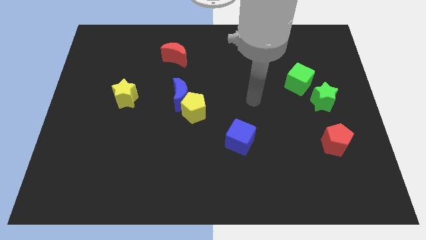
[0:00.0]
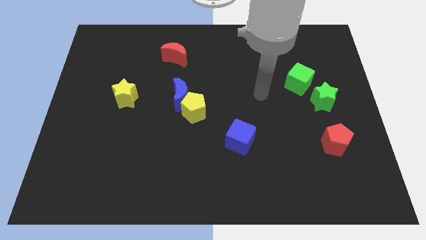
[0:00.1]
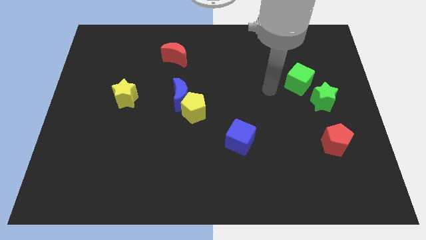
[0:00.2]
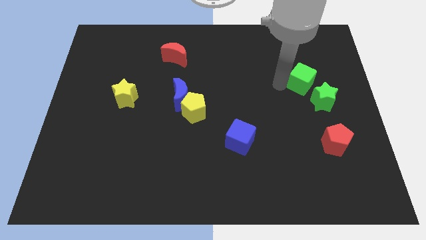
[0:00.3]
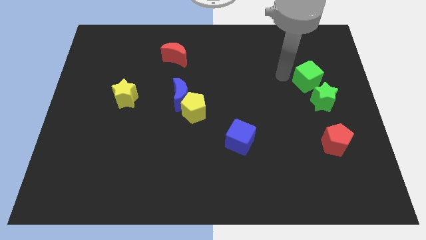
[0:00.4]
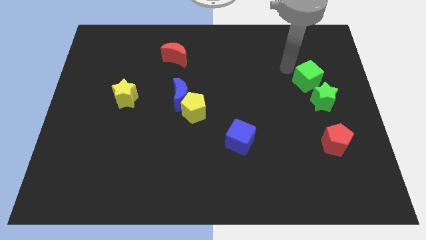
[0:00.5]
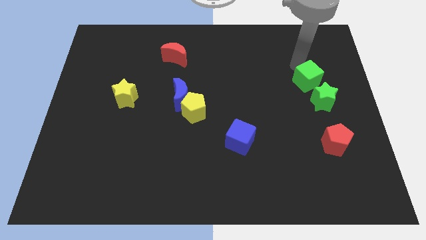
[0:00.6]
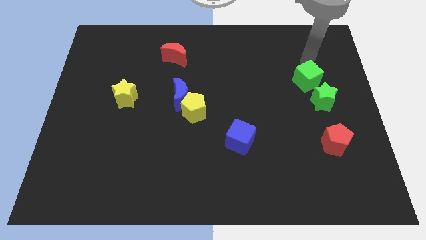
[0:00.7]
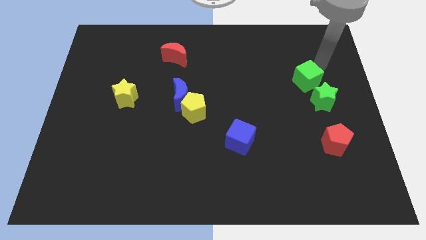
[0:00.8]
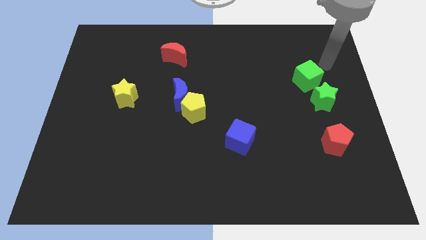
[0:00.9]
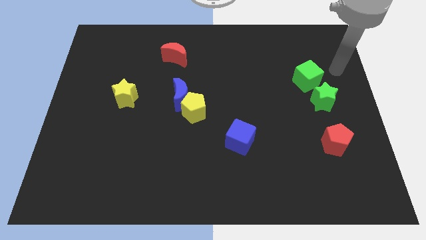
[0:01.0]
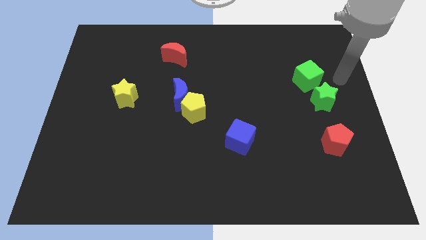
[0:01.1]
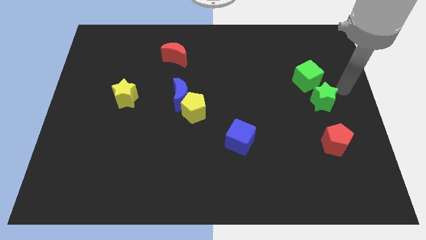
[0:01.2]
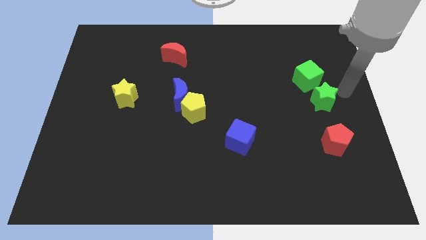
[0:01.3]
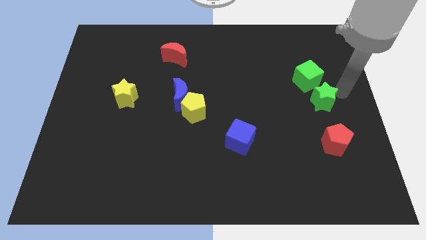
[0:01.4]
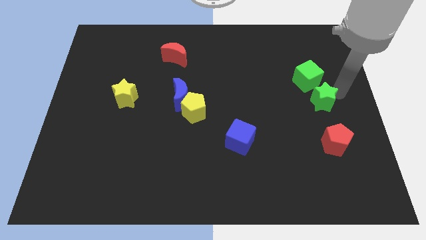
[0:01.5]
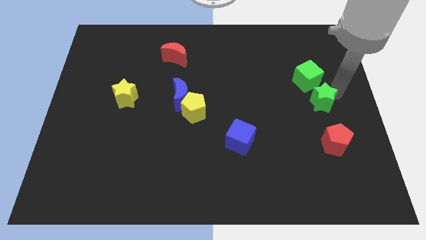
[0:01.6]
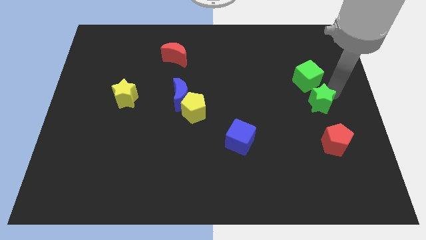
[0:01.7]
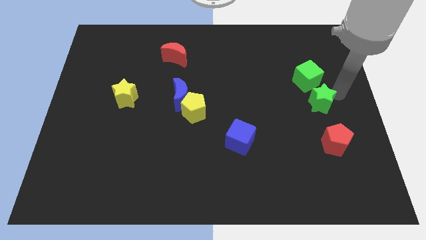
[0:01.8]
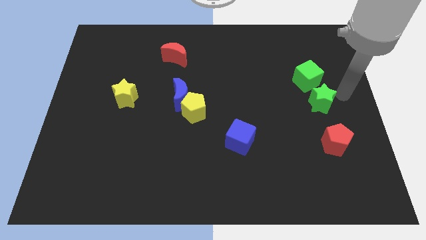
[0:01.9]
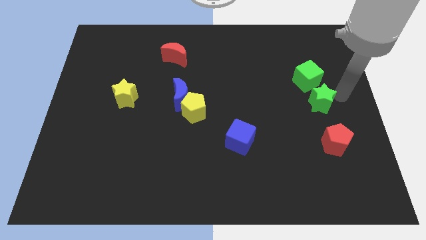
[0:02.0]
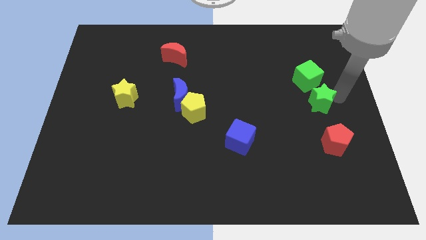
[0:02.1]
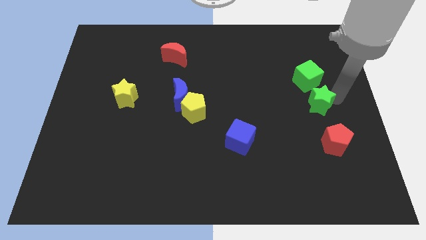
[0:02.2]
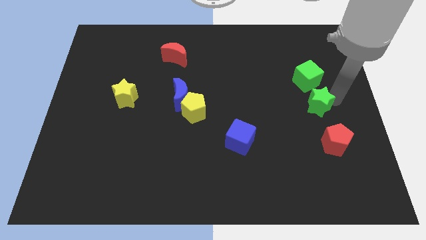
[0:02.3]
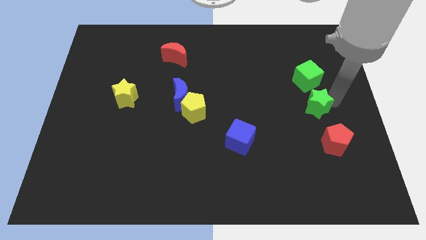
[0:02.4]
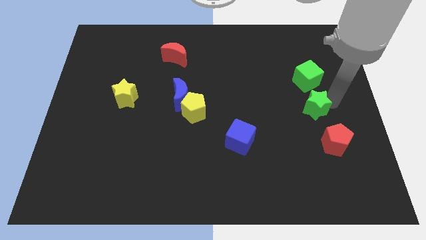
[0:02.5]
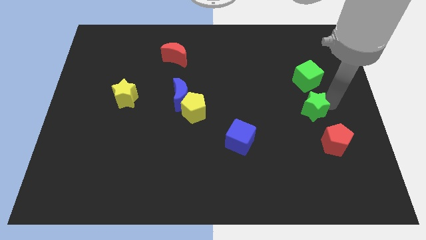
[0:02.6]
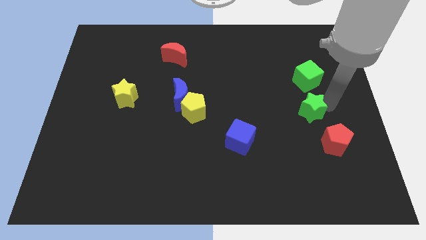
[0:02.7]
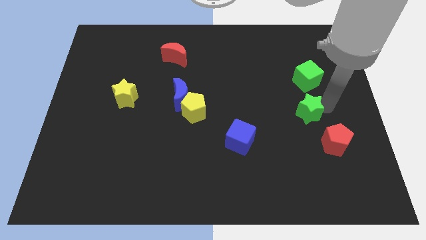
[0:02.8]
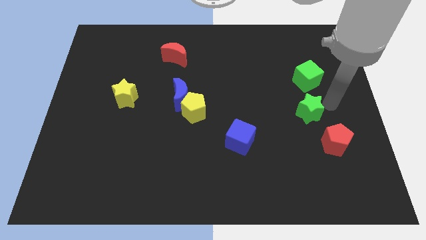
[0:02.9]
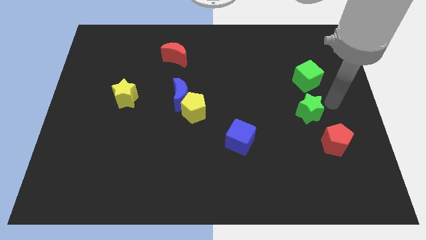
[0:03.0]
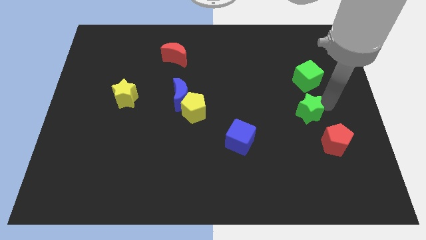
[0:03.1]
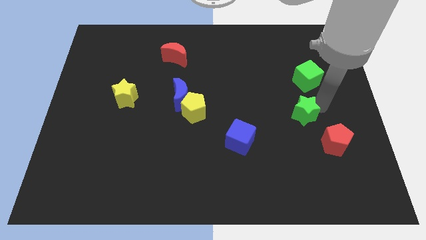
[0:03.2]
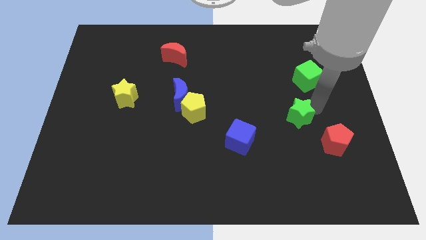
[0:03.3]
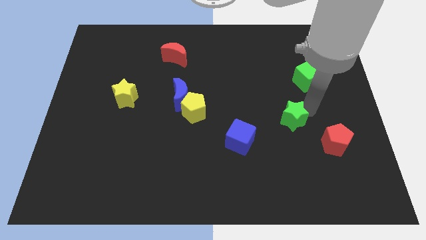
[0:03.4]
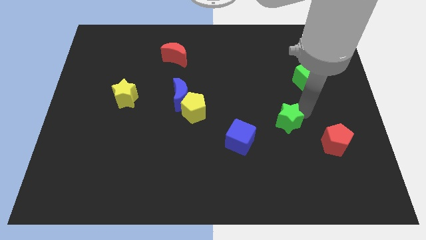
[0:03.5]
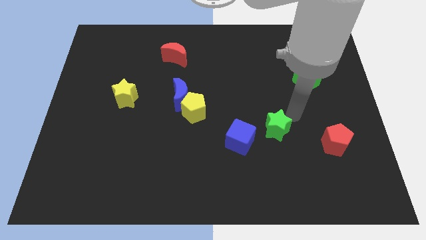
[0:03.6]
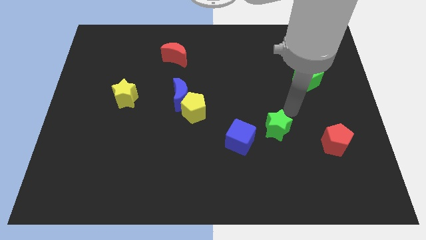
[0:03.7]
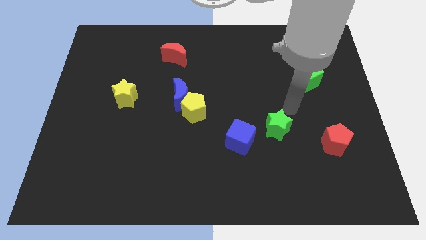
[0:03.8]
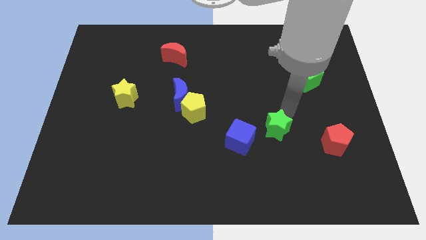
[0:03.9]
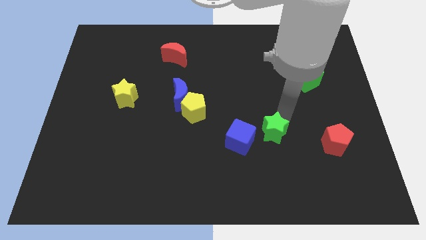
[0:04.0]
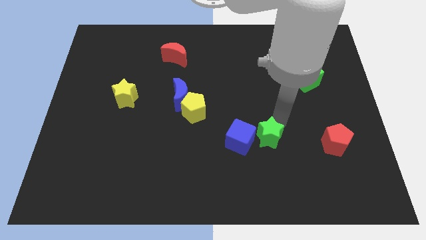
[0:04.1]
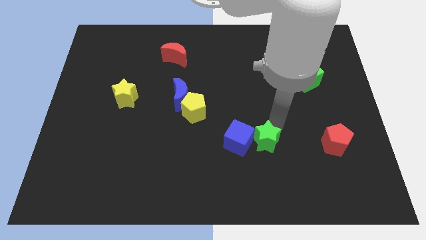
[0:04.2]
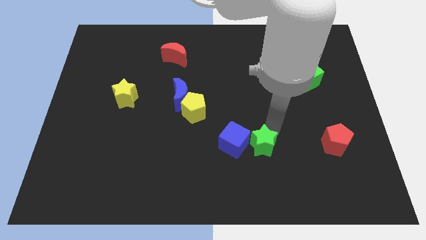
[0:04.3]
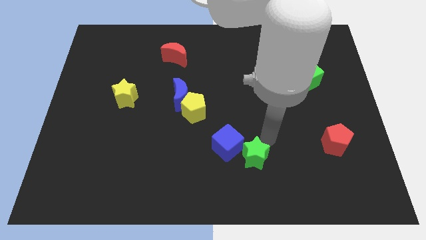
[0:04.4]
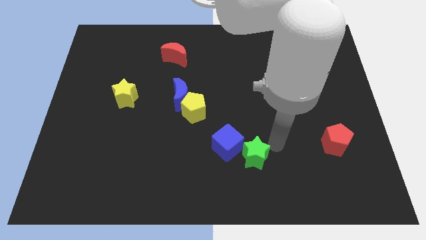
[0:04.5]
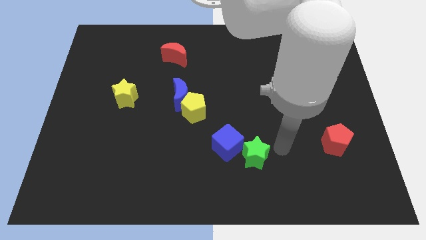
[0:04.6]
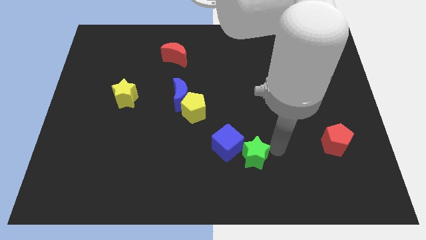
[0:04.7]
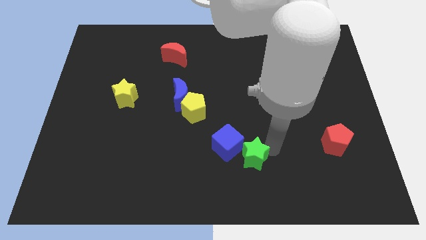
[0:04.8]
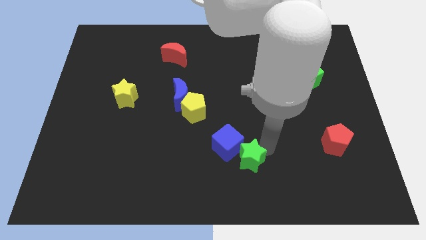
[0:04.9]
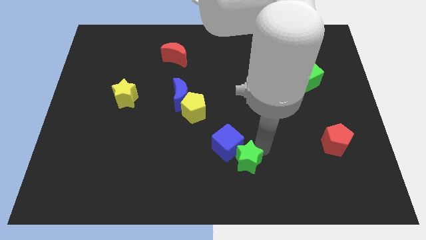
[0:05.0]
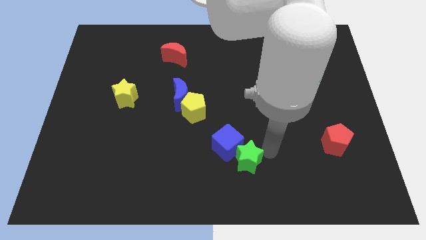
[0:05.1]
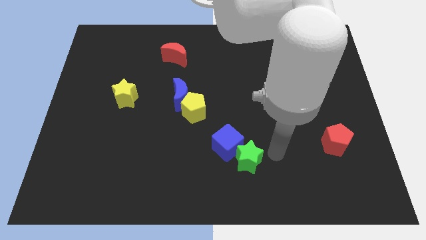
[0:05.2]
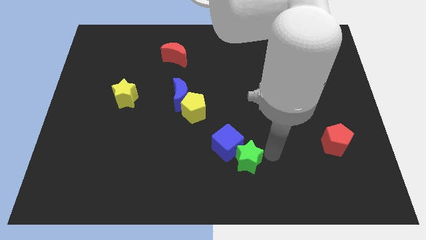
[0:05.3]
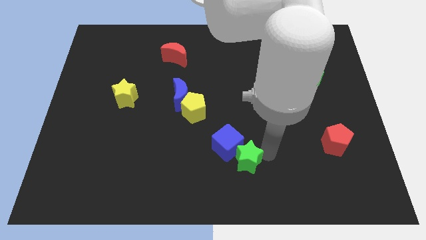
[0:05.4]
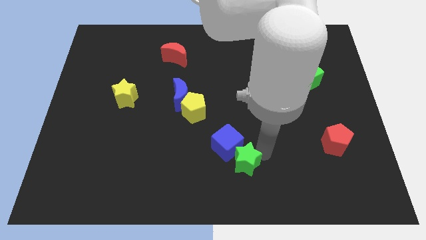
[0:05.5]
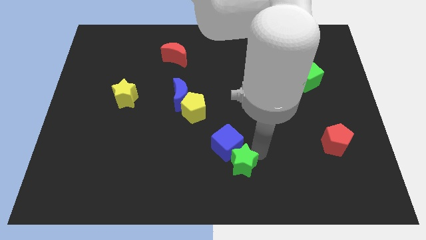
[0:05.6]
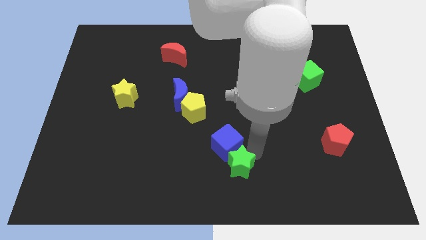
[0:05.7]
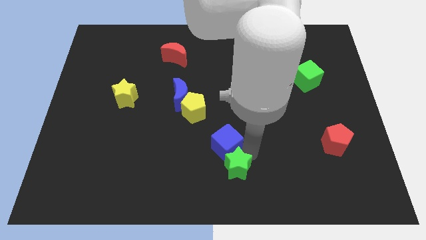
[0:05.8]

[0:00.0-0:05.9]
push the green star to the bottom left side of the blue cube

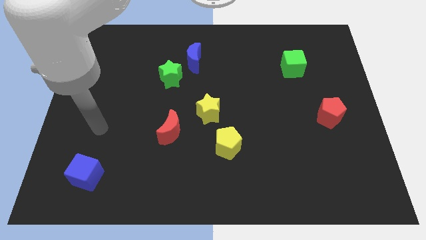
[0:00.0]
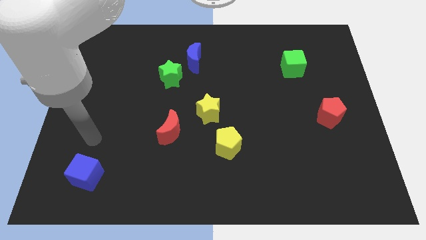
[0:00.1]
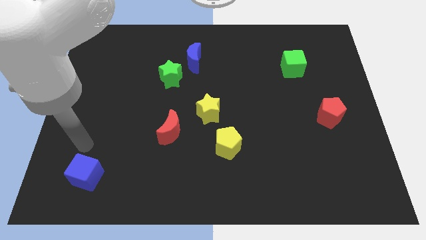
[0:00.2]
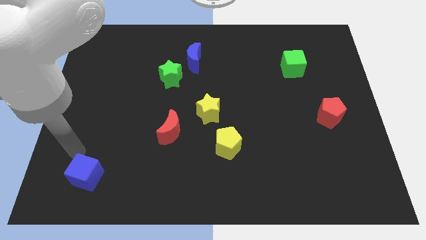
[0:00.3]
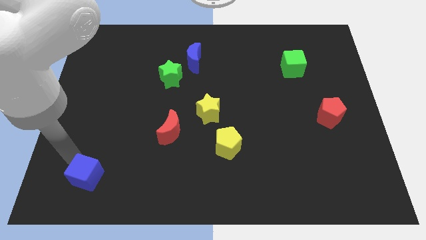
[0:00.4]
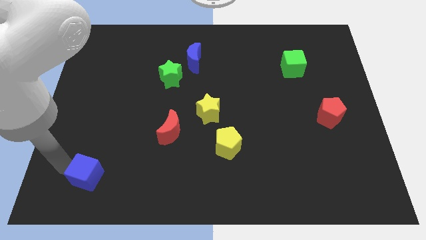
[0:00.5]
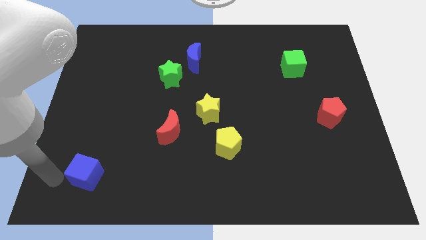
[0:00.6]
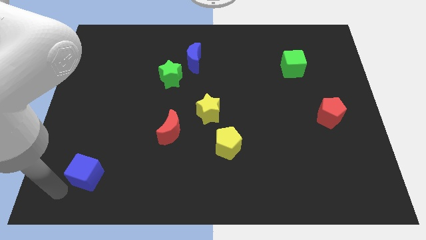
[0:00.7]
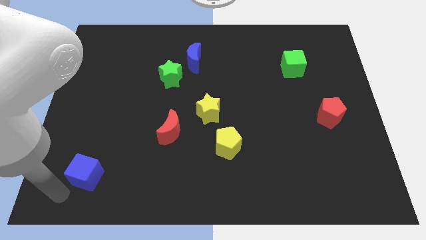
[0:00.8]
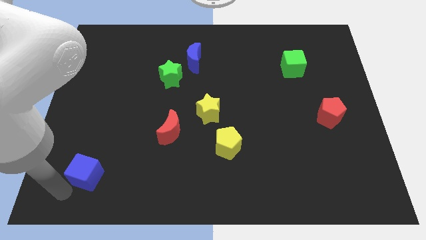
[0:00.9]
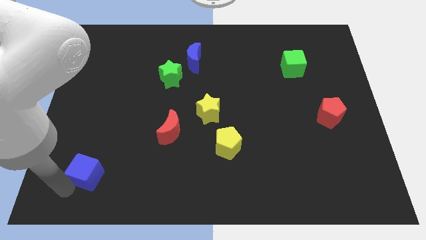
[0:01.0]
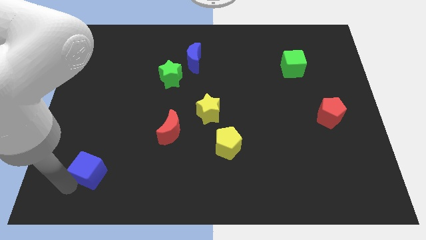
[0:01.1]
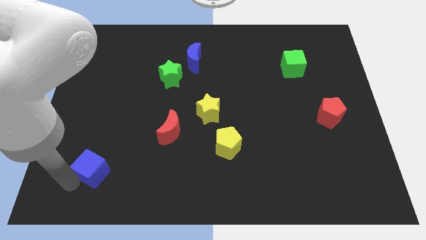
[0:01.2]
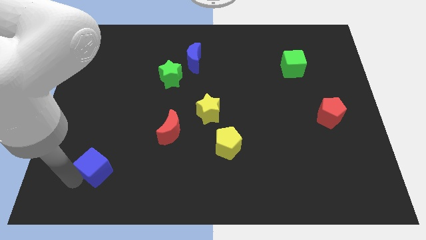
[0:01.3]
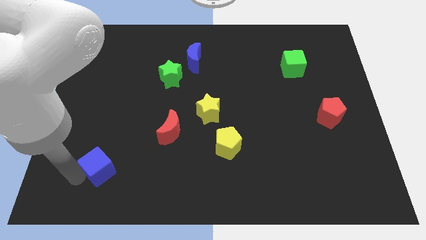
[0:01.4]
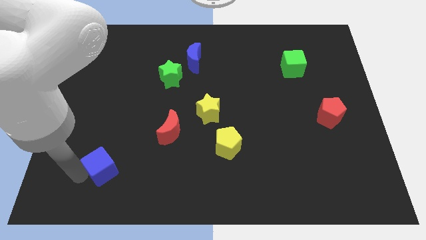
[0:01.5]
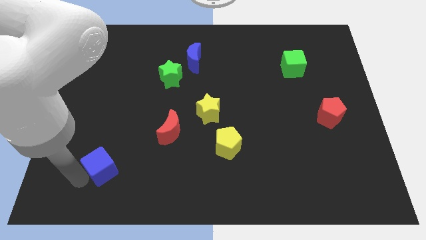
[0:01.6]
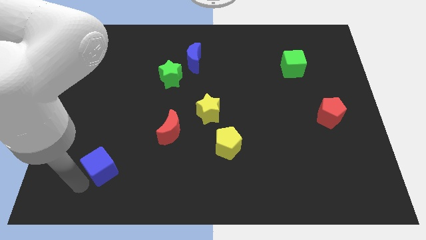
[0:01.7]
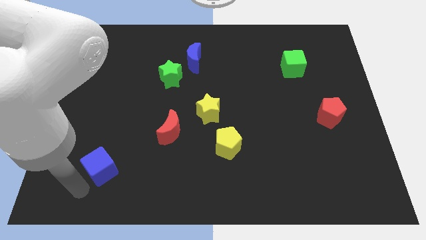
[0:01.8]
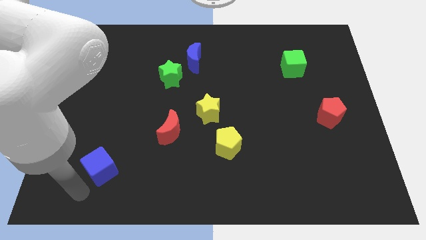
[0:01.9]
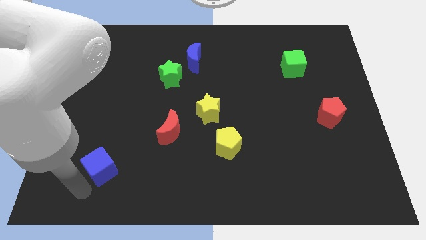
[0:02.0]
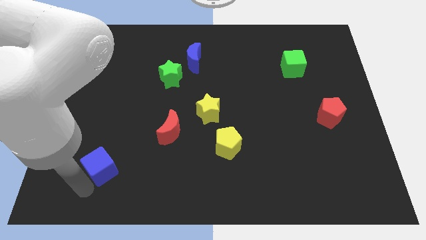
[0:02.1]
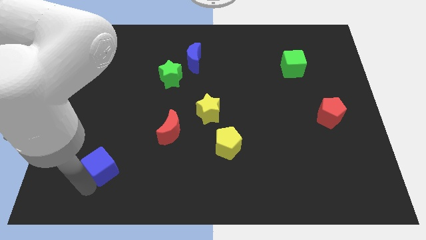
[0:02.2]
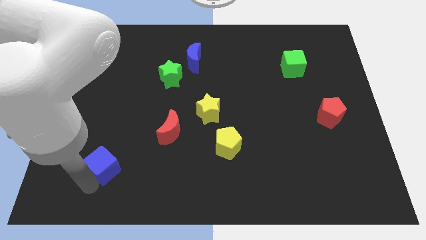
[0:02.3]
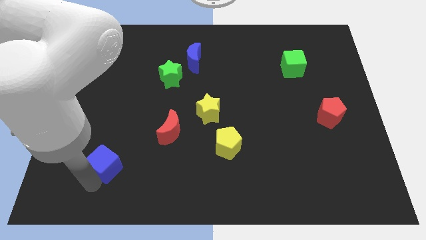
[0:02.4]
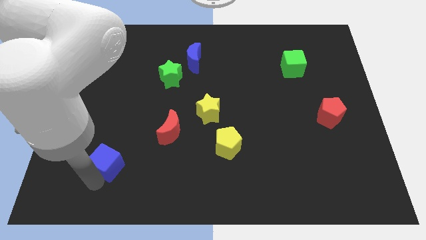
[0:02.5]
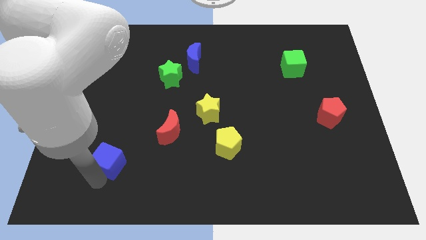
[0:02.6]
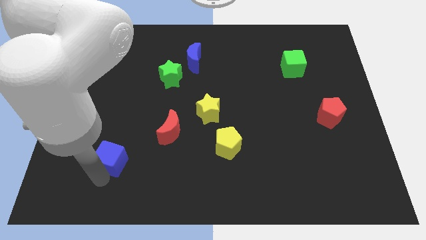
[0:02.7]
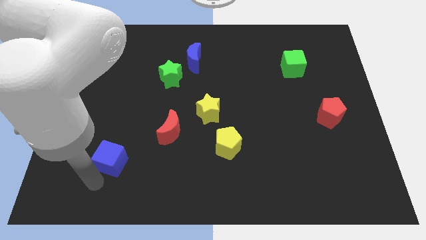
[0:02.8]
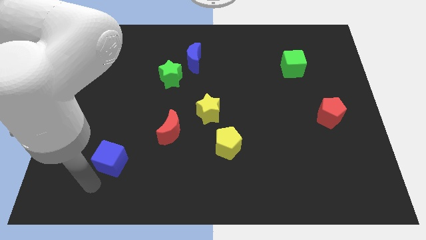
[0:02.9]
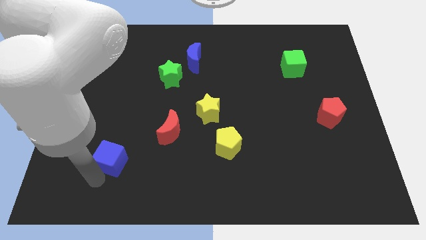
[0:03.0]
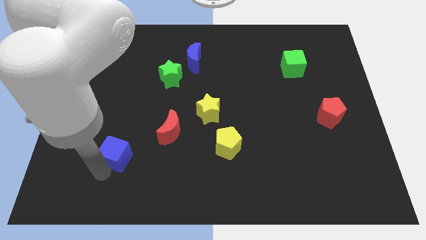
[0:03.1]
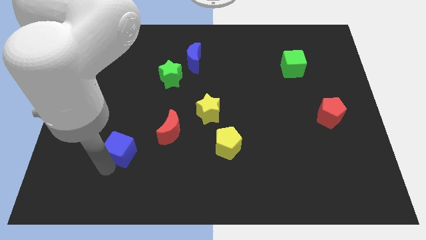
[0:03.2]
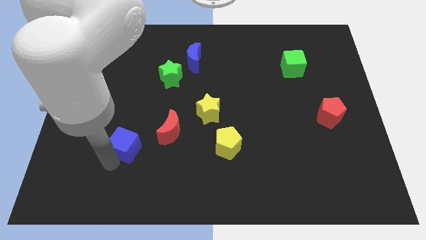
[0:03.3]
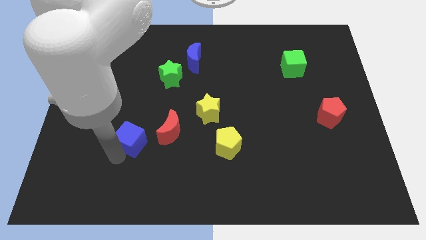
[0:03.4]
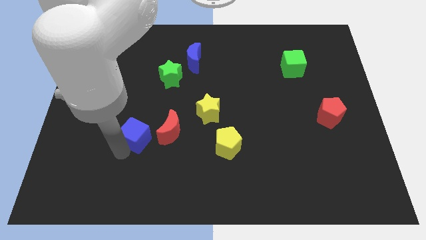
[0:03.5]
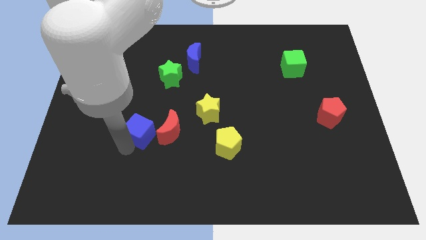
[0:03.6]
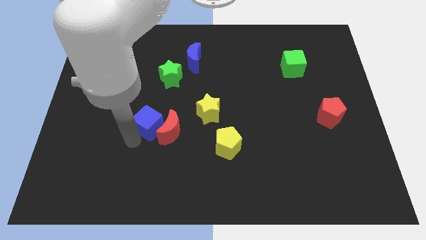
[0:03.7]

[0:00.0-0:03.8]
push the blue cube to the bottom side of the green star
